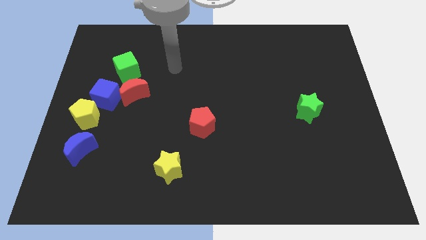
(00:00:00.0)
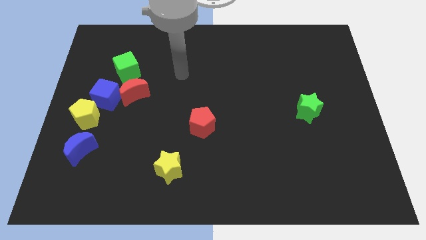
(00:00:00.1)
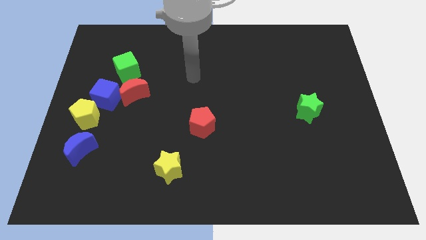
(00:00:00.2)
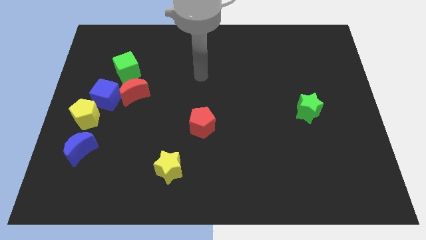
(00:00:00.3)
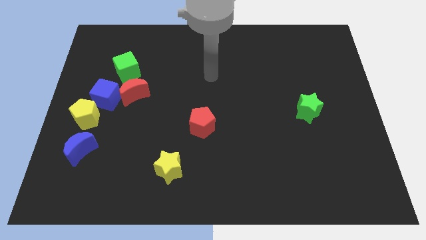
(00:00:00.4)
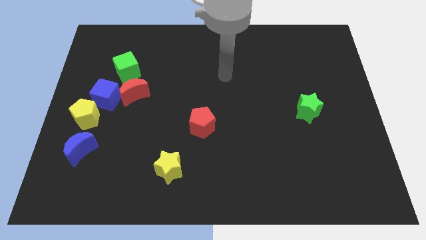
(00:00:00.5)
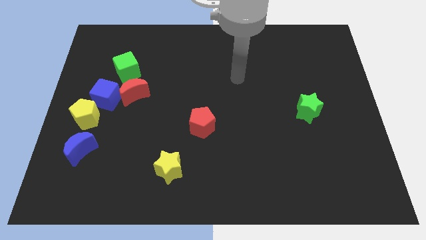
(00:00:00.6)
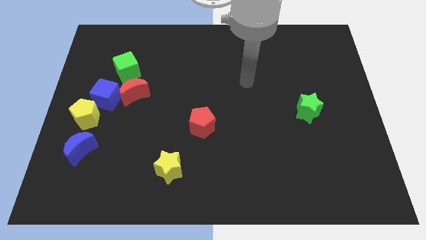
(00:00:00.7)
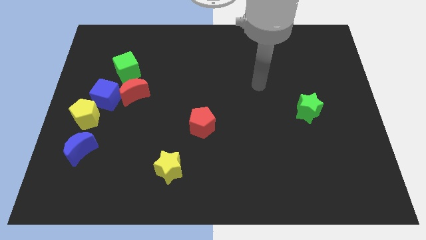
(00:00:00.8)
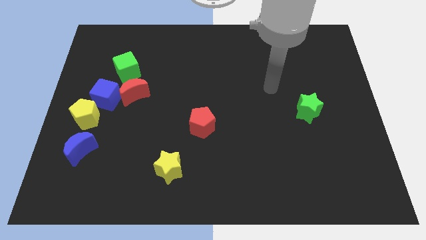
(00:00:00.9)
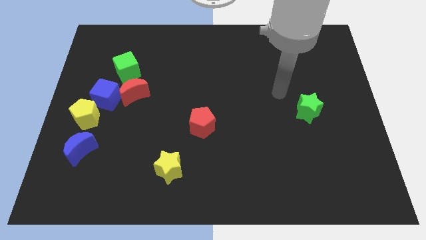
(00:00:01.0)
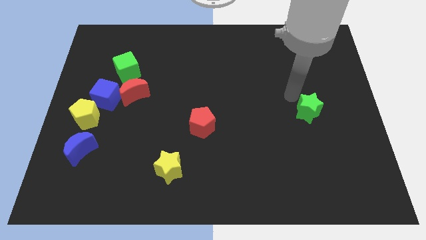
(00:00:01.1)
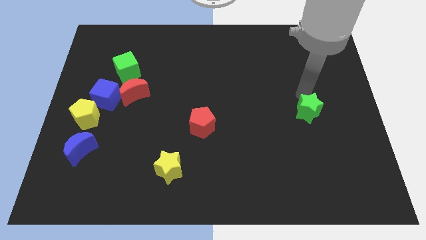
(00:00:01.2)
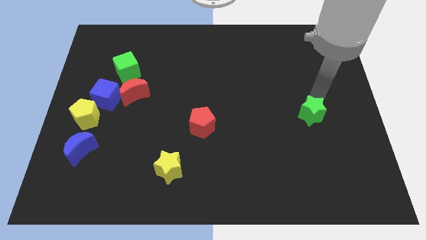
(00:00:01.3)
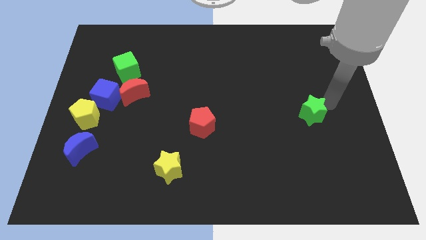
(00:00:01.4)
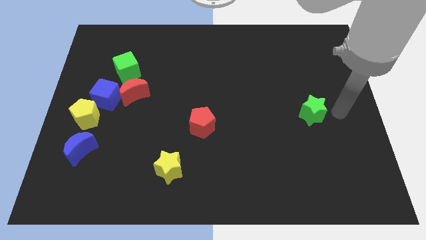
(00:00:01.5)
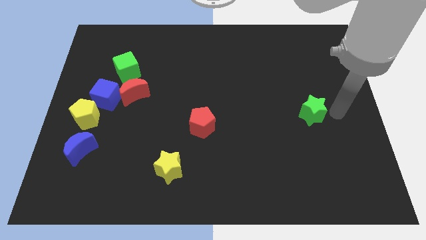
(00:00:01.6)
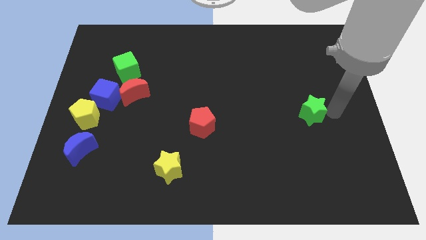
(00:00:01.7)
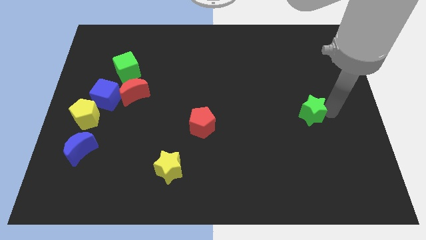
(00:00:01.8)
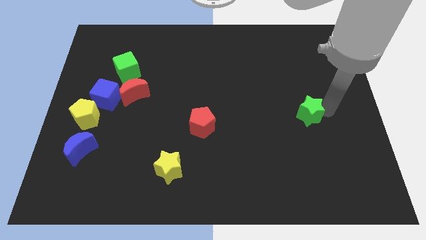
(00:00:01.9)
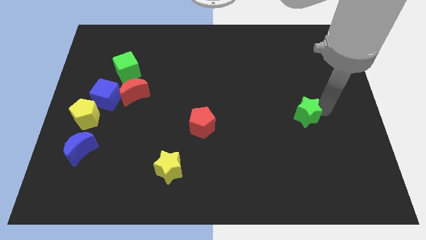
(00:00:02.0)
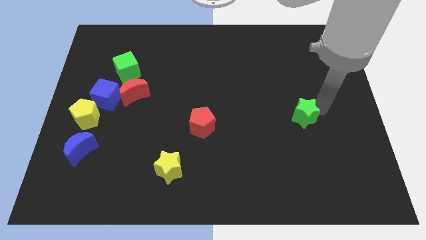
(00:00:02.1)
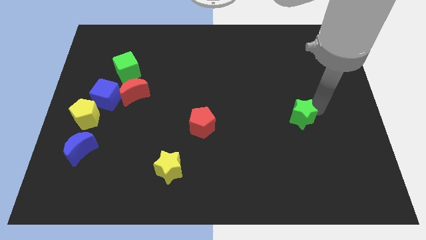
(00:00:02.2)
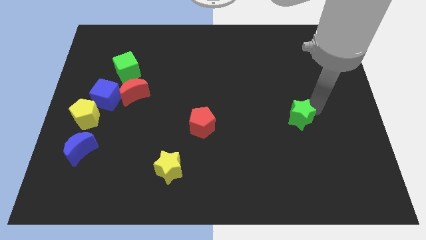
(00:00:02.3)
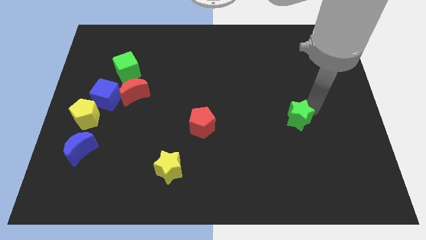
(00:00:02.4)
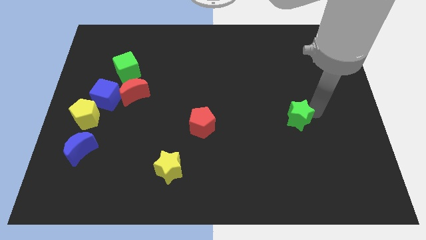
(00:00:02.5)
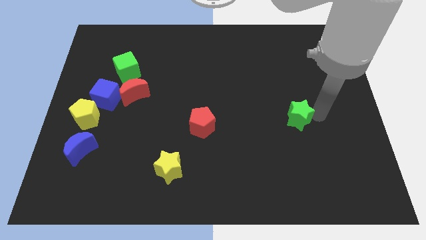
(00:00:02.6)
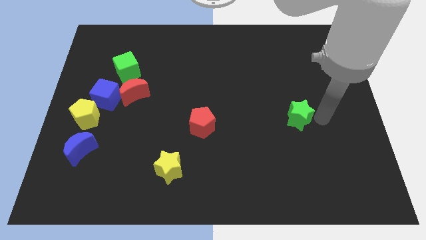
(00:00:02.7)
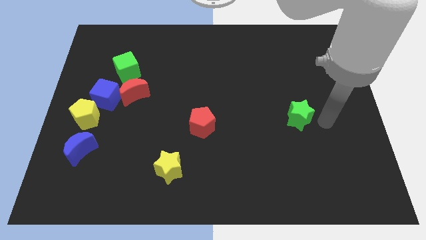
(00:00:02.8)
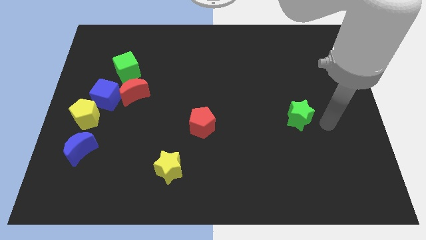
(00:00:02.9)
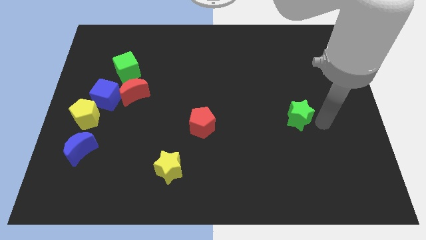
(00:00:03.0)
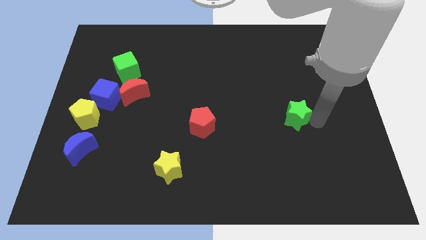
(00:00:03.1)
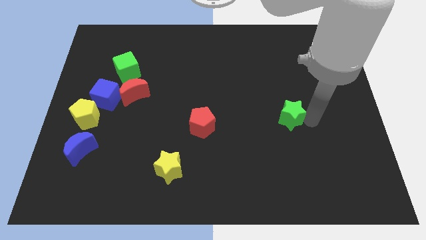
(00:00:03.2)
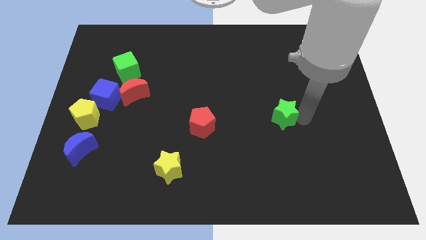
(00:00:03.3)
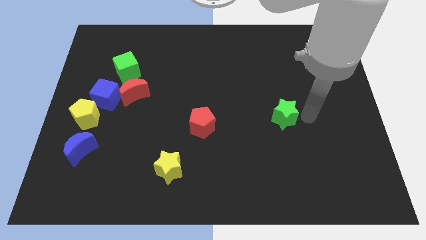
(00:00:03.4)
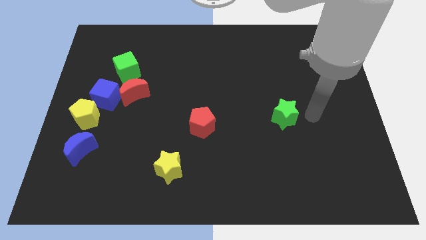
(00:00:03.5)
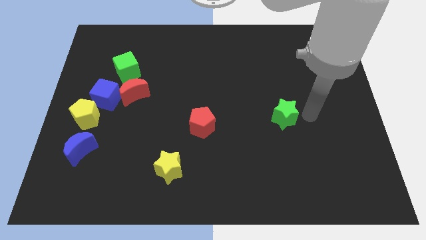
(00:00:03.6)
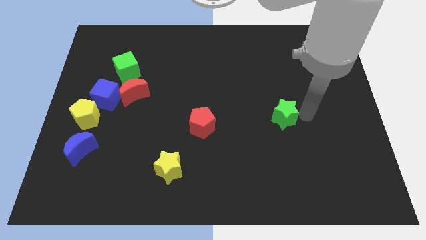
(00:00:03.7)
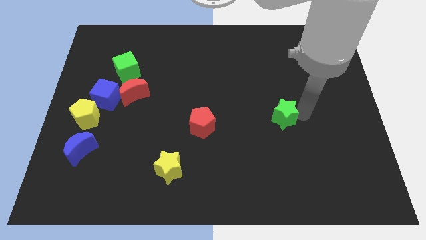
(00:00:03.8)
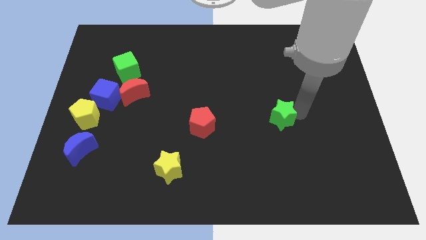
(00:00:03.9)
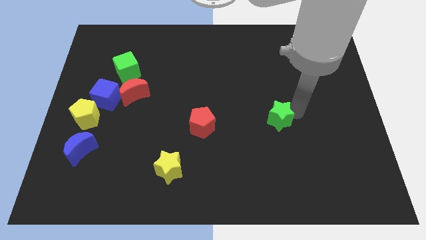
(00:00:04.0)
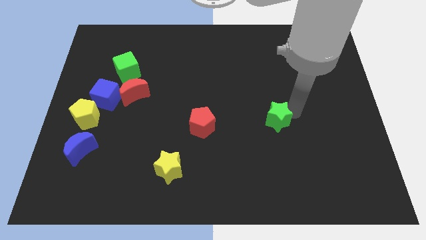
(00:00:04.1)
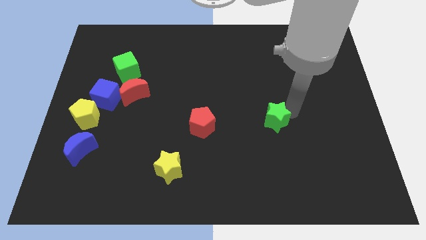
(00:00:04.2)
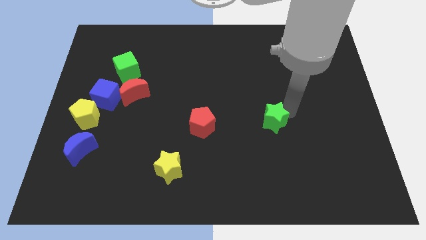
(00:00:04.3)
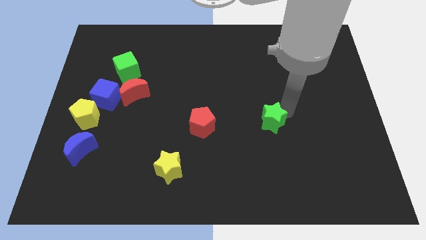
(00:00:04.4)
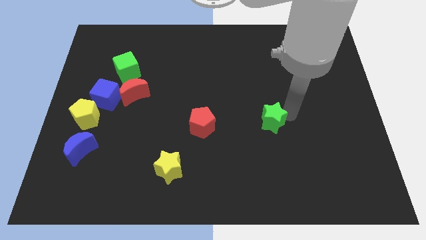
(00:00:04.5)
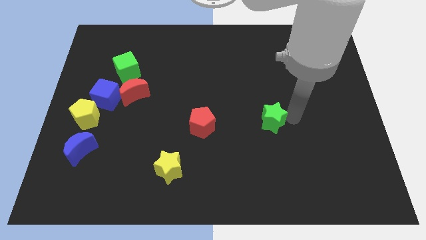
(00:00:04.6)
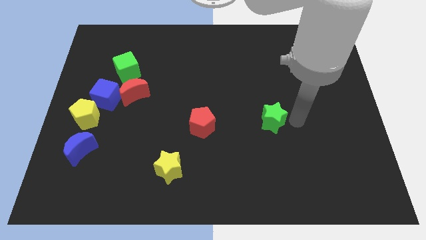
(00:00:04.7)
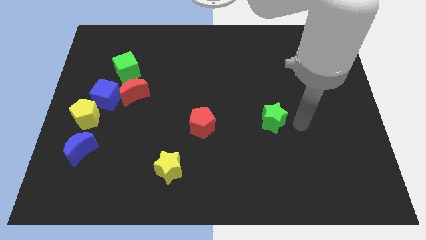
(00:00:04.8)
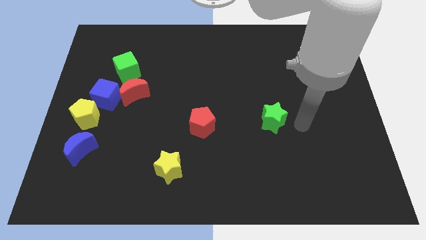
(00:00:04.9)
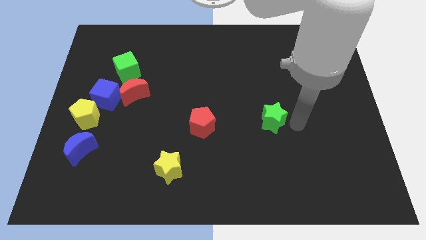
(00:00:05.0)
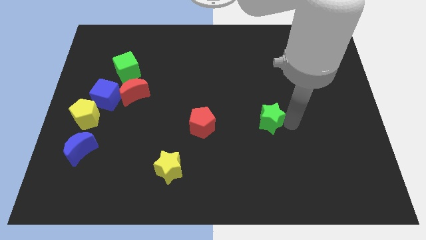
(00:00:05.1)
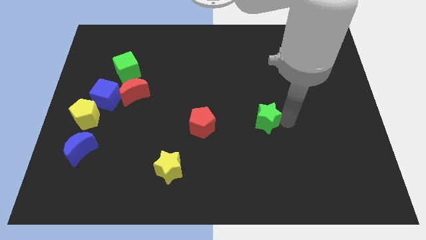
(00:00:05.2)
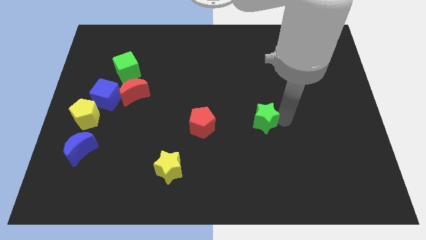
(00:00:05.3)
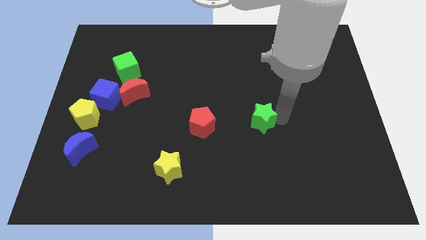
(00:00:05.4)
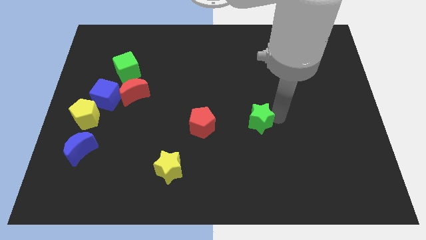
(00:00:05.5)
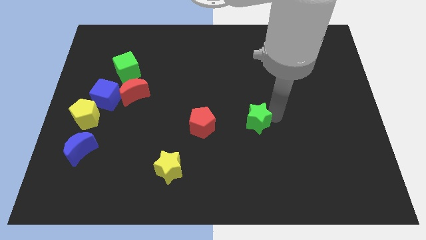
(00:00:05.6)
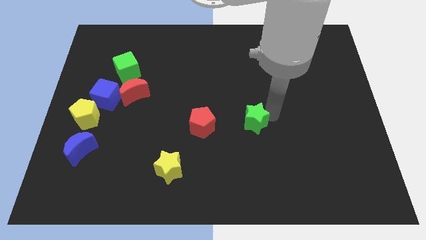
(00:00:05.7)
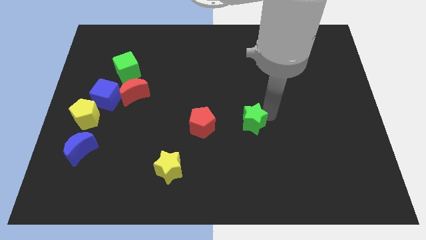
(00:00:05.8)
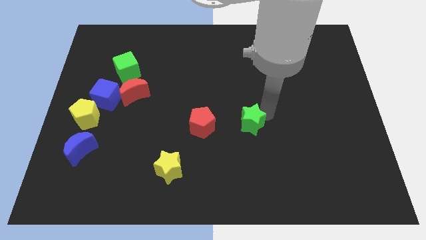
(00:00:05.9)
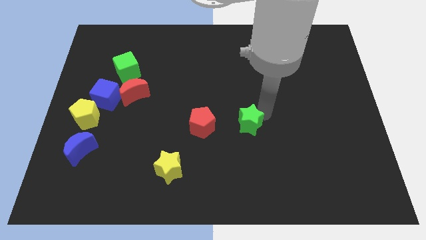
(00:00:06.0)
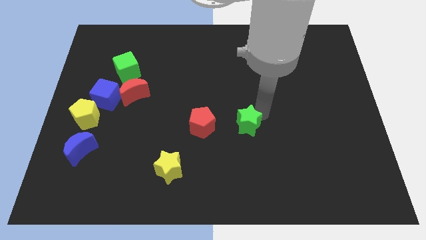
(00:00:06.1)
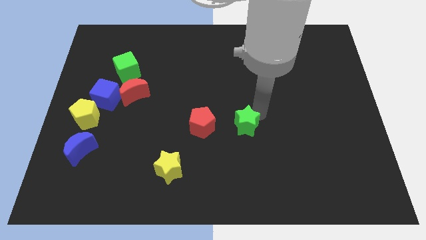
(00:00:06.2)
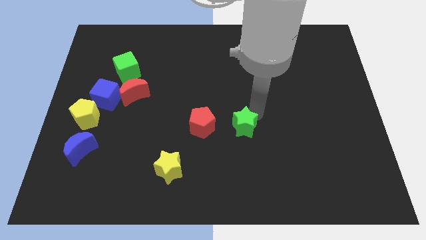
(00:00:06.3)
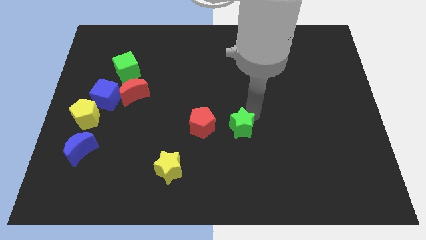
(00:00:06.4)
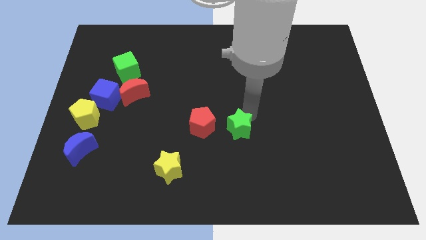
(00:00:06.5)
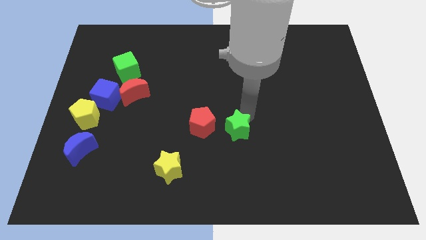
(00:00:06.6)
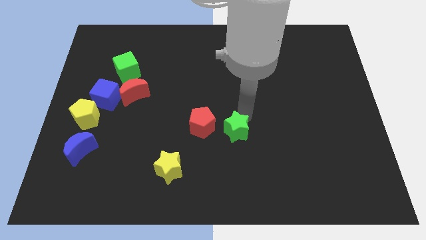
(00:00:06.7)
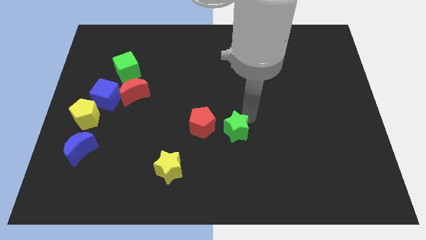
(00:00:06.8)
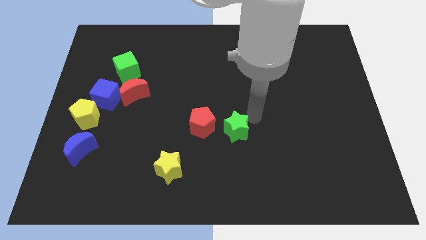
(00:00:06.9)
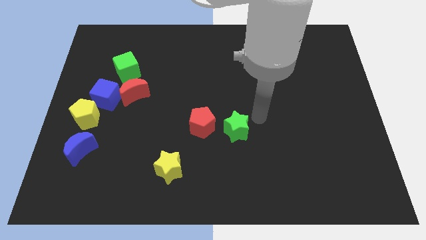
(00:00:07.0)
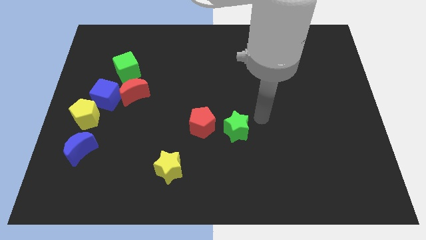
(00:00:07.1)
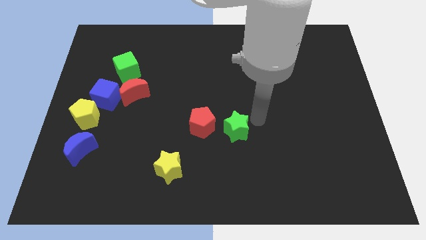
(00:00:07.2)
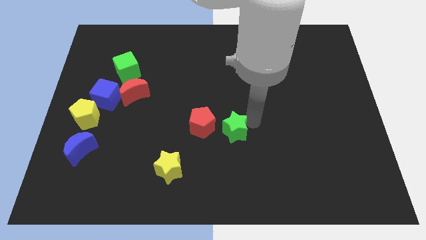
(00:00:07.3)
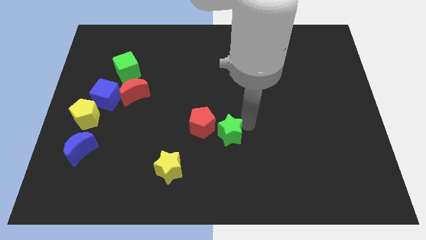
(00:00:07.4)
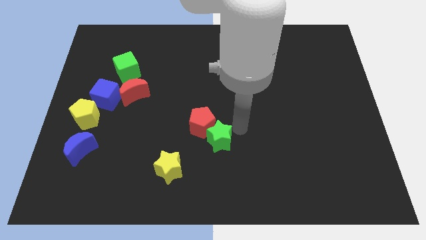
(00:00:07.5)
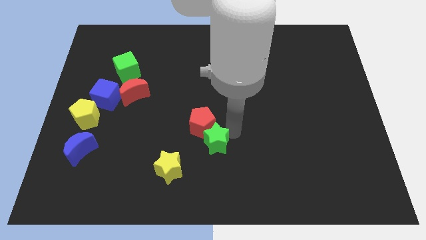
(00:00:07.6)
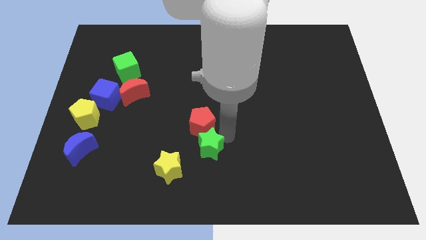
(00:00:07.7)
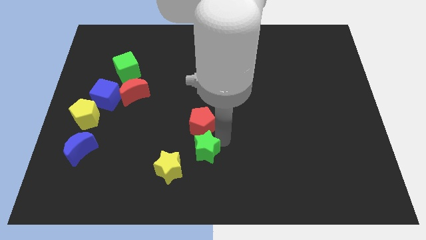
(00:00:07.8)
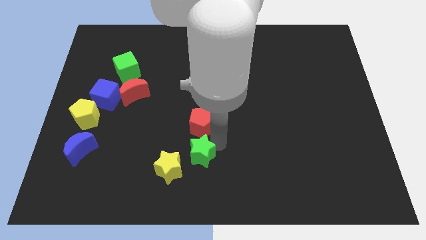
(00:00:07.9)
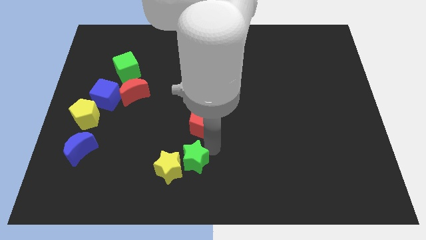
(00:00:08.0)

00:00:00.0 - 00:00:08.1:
push the green star towards the yellow star
